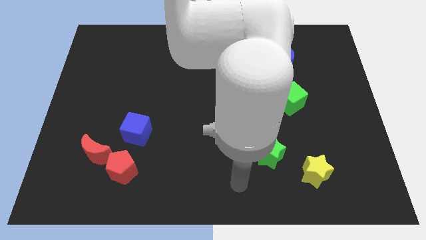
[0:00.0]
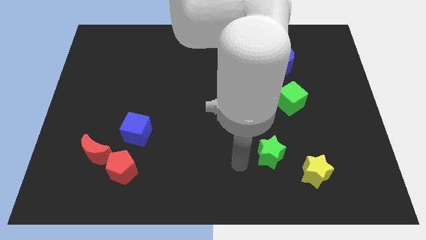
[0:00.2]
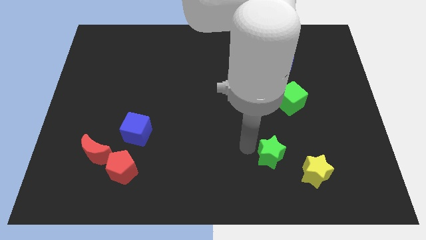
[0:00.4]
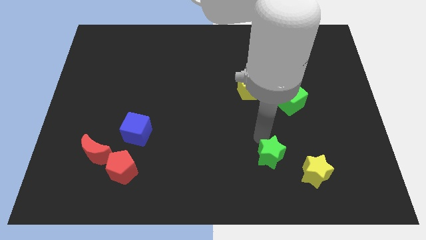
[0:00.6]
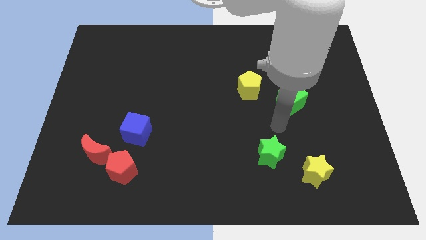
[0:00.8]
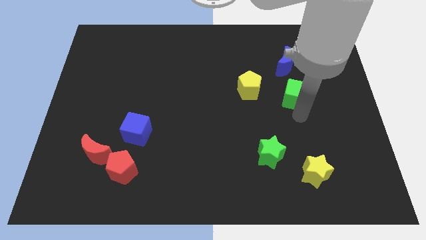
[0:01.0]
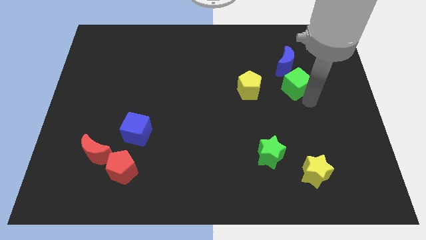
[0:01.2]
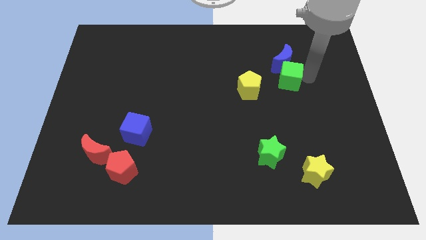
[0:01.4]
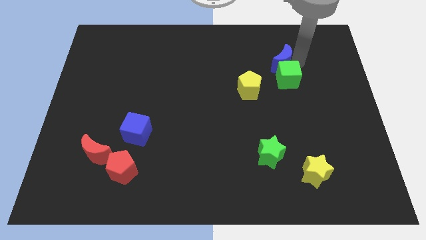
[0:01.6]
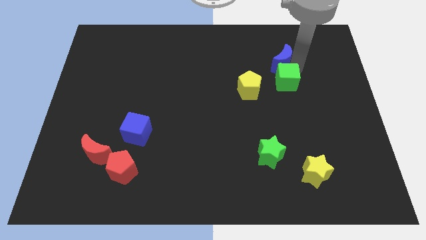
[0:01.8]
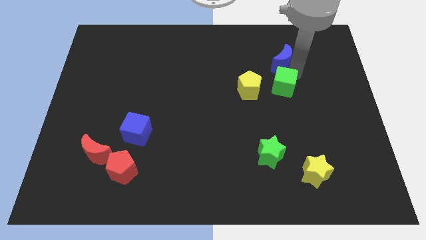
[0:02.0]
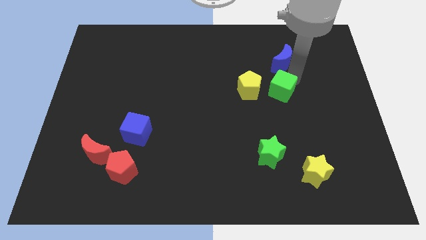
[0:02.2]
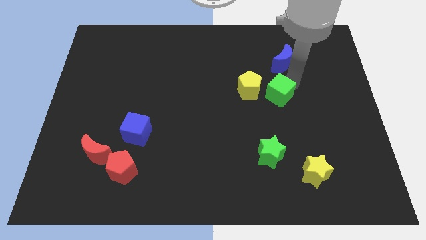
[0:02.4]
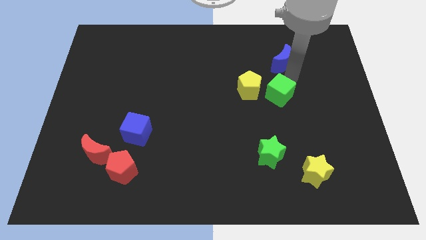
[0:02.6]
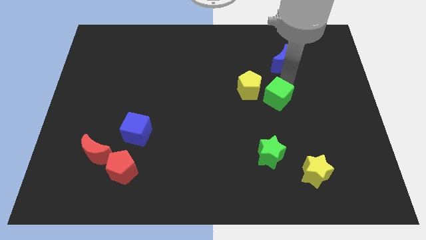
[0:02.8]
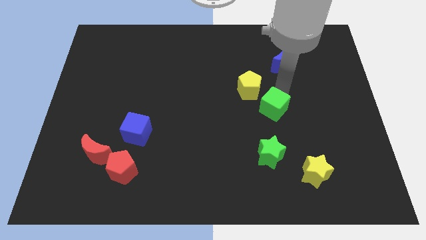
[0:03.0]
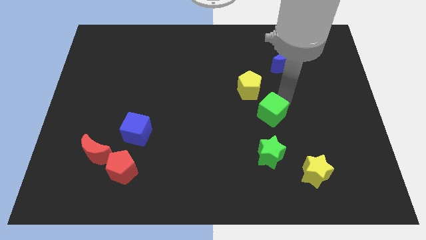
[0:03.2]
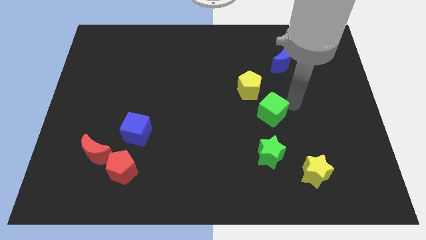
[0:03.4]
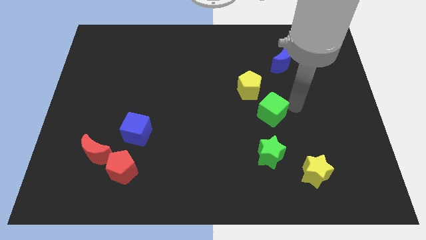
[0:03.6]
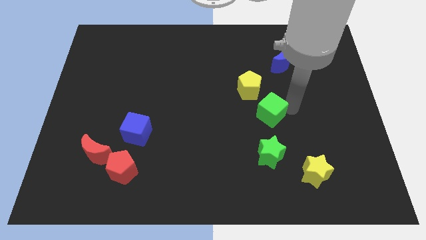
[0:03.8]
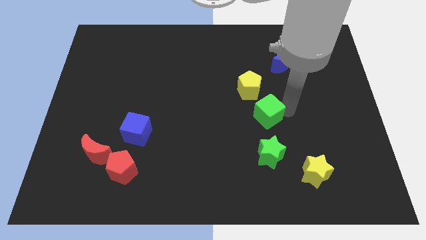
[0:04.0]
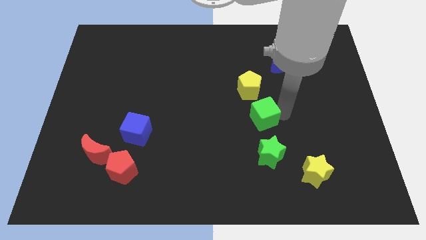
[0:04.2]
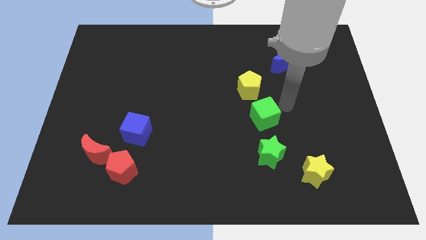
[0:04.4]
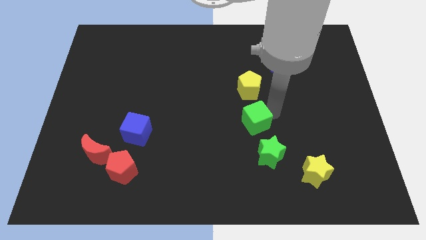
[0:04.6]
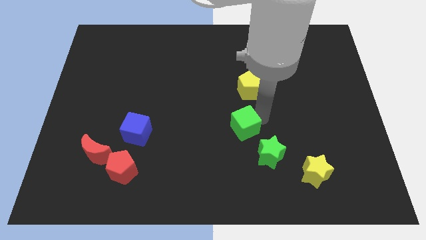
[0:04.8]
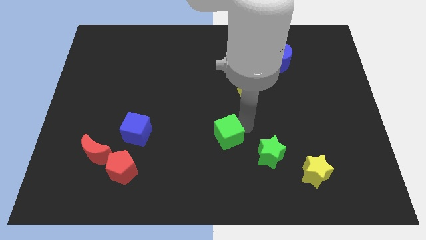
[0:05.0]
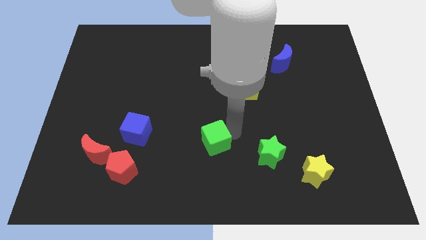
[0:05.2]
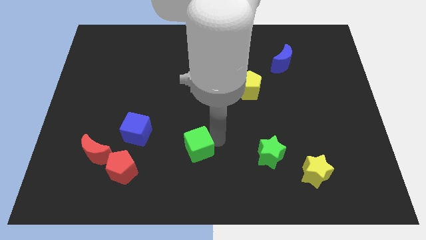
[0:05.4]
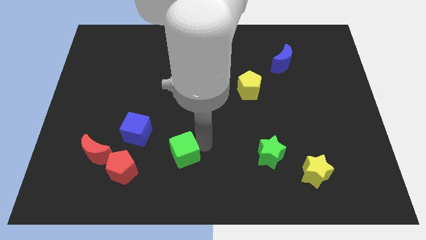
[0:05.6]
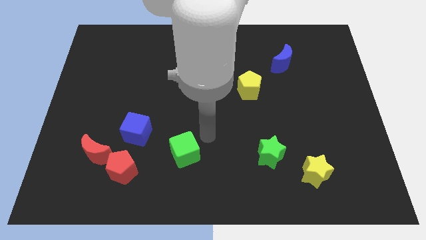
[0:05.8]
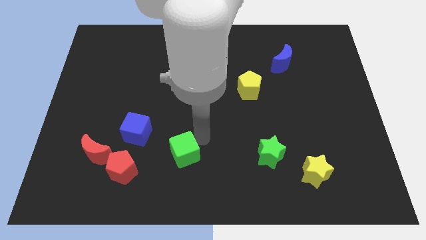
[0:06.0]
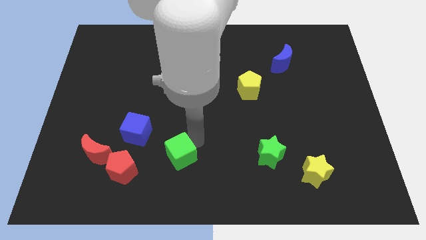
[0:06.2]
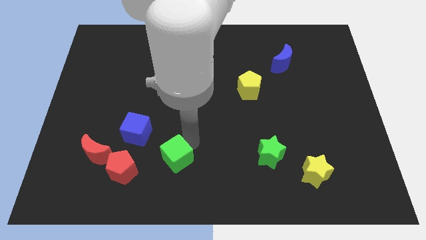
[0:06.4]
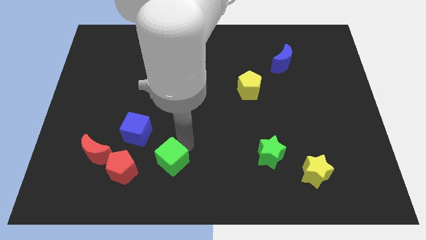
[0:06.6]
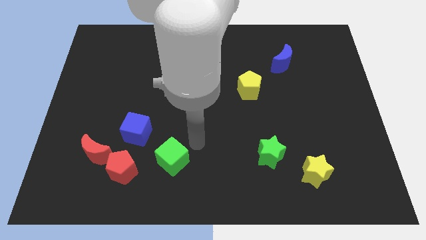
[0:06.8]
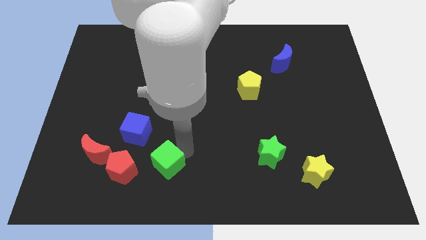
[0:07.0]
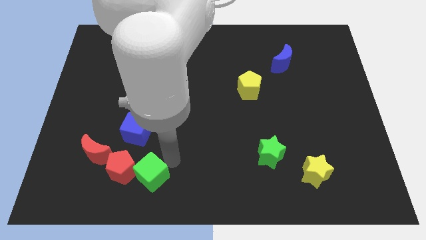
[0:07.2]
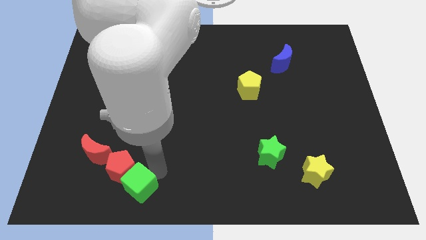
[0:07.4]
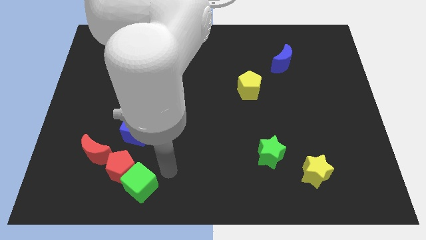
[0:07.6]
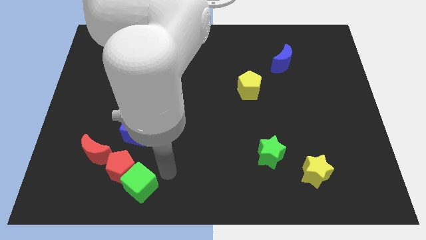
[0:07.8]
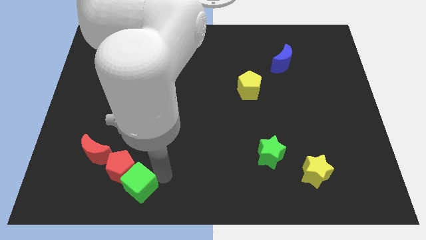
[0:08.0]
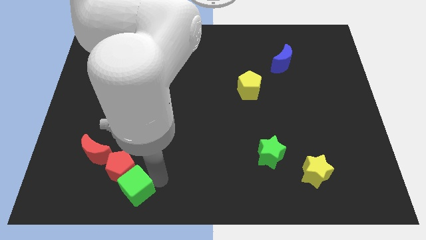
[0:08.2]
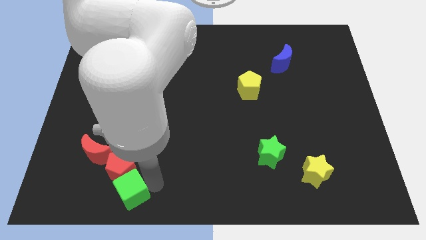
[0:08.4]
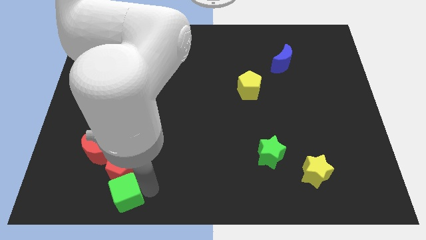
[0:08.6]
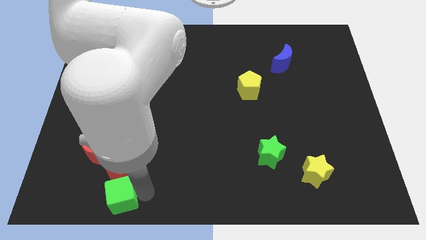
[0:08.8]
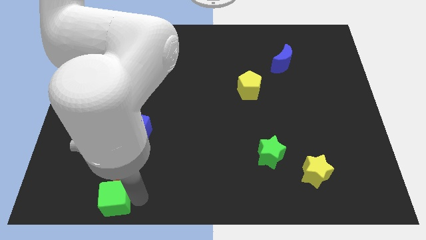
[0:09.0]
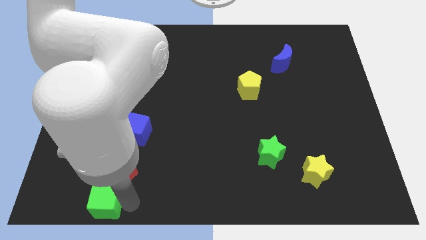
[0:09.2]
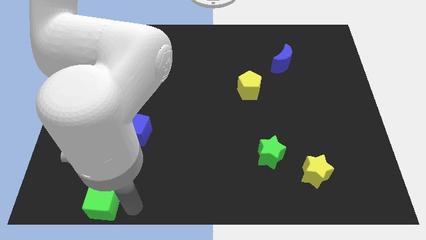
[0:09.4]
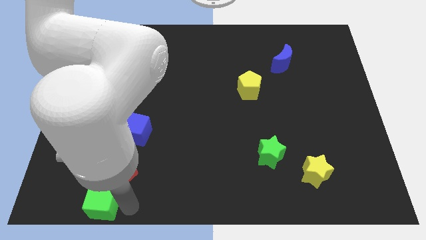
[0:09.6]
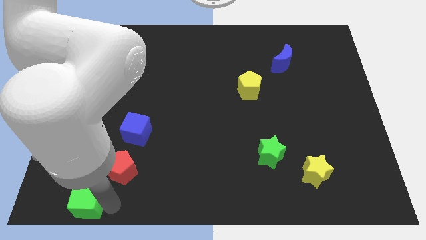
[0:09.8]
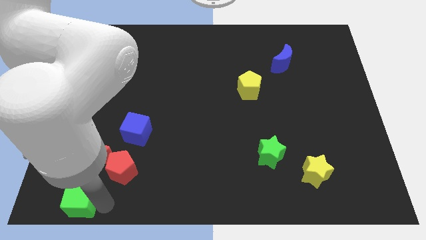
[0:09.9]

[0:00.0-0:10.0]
slide the green cube to the bottom left of the board

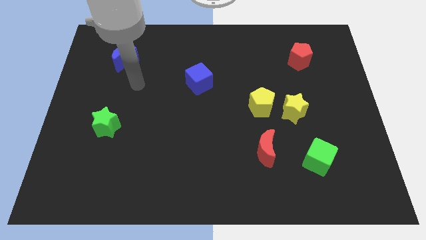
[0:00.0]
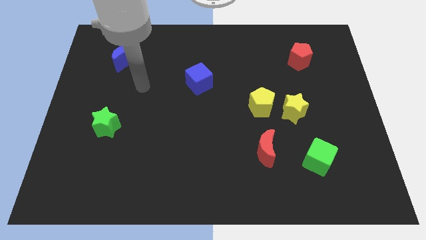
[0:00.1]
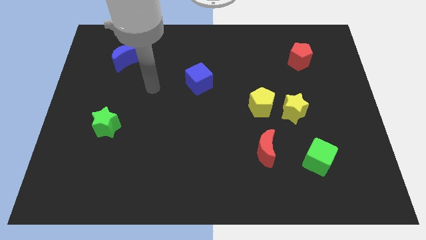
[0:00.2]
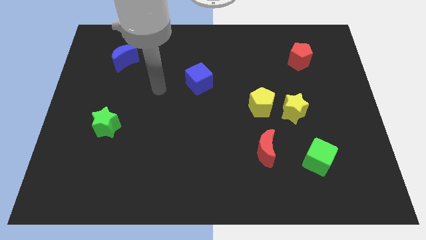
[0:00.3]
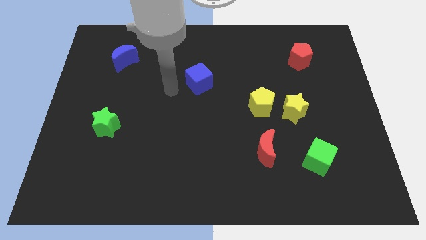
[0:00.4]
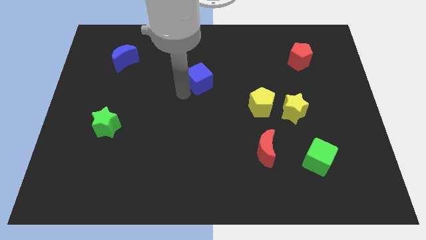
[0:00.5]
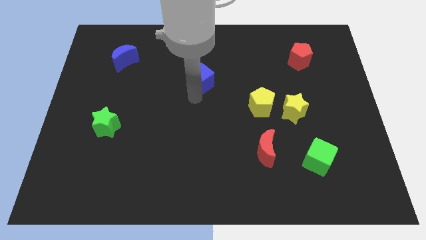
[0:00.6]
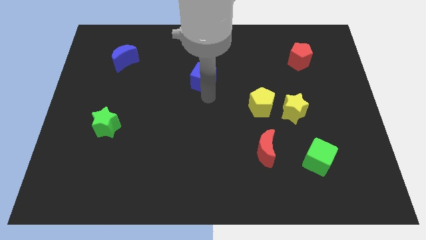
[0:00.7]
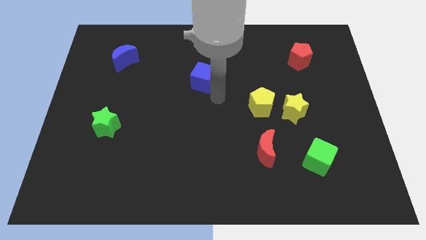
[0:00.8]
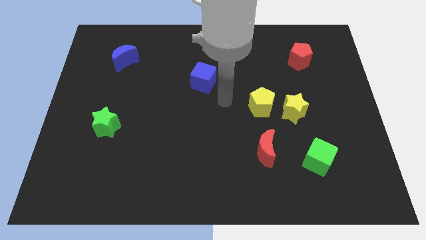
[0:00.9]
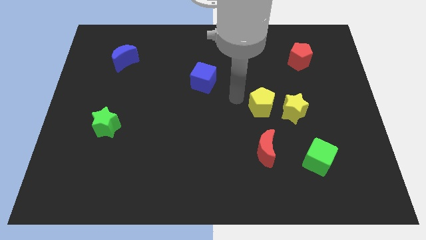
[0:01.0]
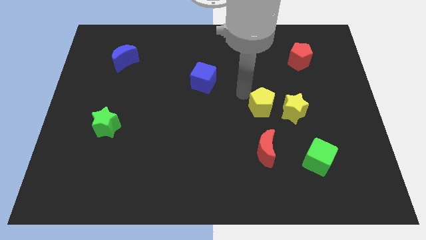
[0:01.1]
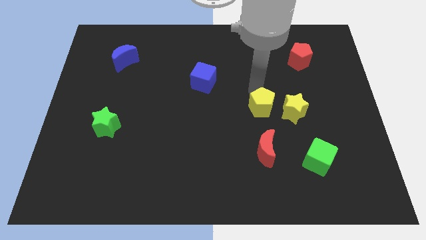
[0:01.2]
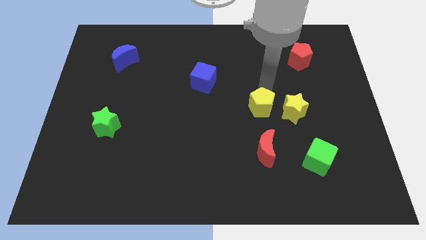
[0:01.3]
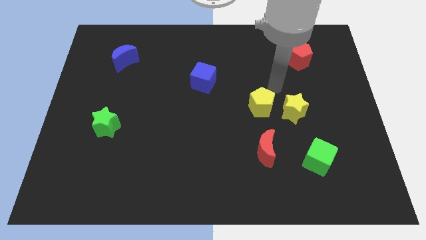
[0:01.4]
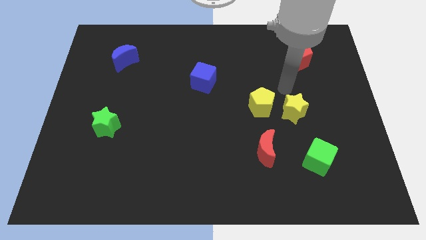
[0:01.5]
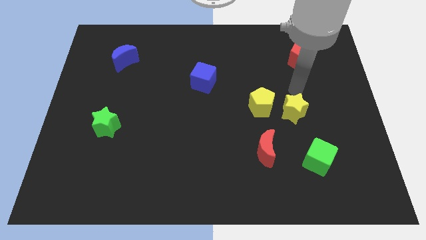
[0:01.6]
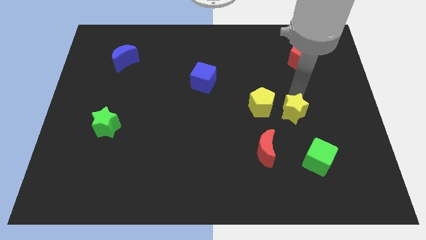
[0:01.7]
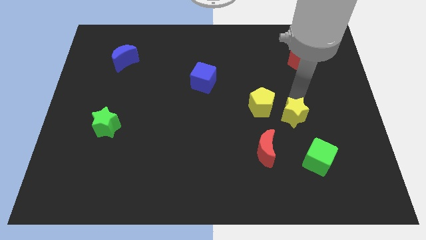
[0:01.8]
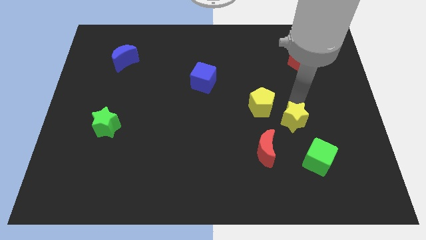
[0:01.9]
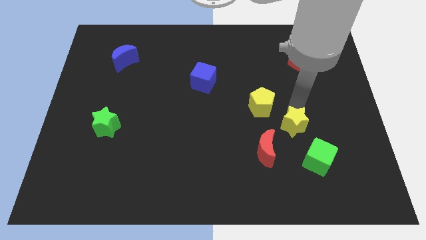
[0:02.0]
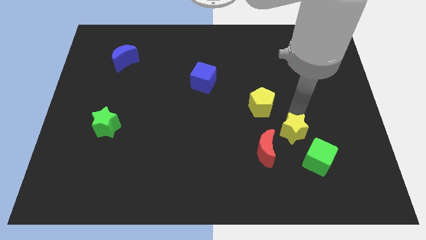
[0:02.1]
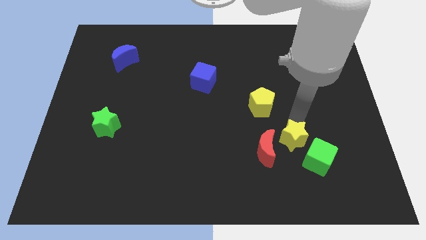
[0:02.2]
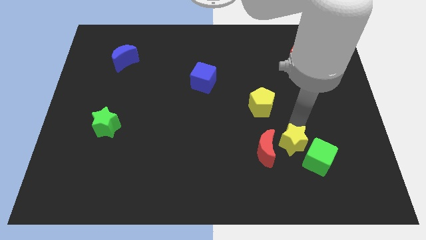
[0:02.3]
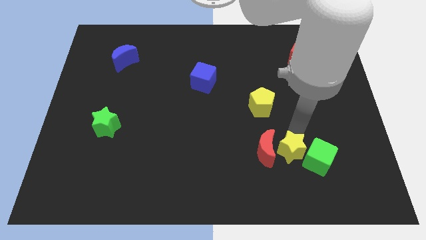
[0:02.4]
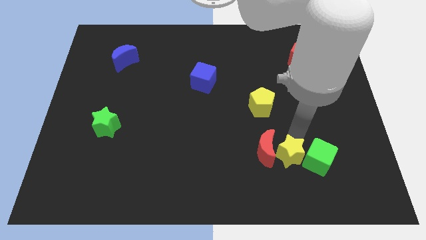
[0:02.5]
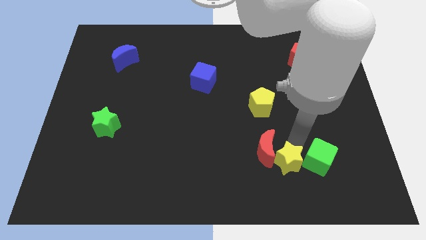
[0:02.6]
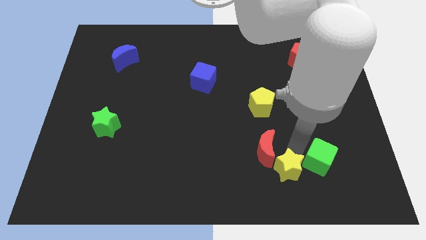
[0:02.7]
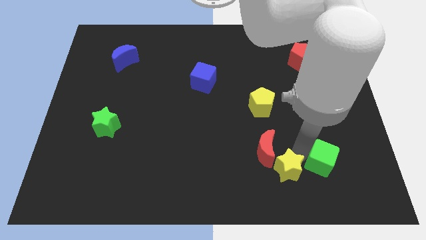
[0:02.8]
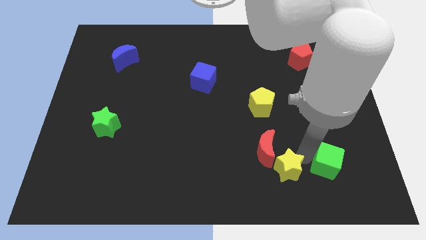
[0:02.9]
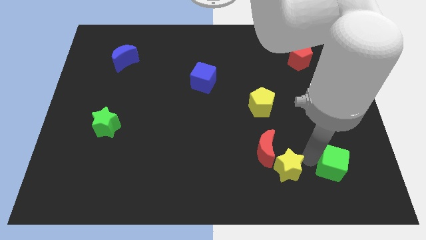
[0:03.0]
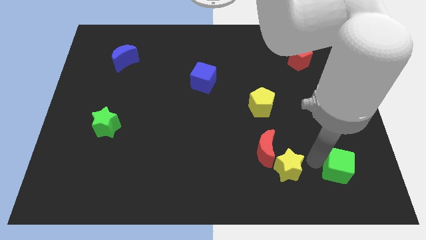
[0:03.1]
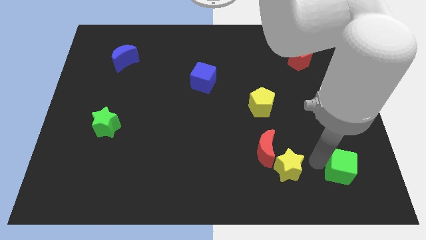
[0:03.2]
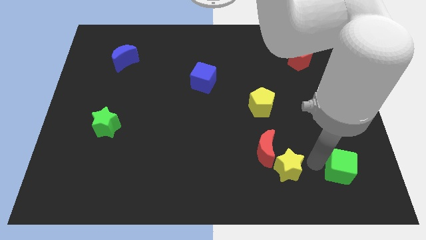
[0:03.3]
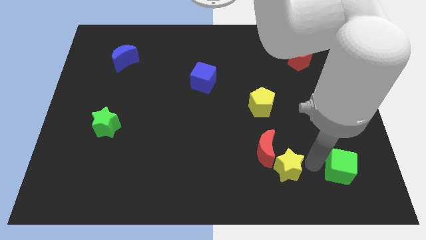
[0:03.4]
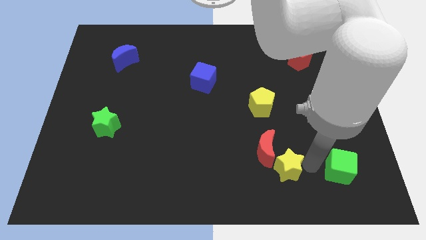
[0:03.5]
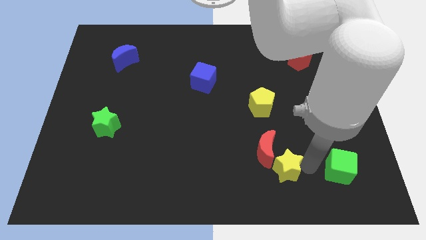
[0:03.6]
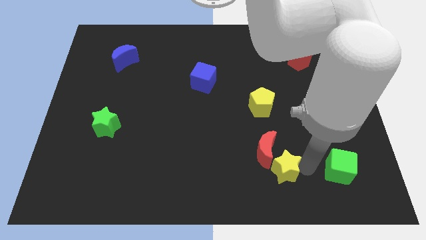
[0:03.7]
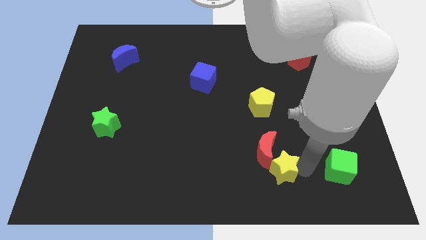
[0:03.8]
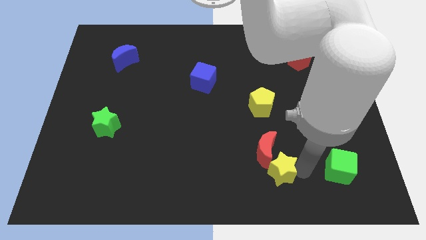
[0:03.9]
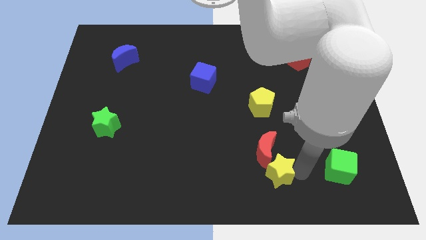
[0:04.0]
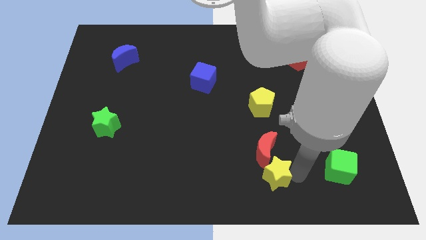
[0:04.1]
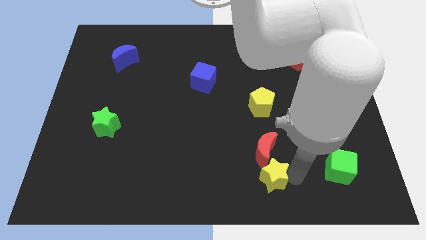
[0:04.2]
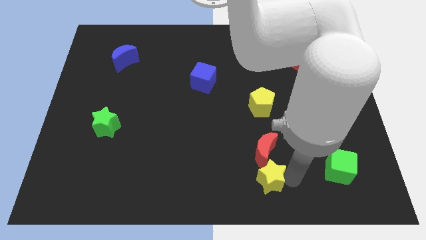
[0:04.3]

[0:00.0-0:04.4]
slide the yellow star to the bottom
